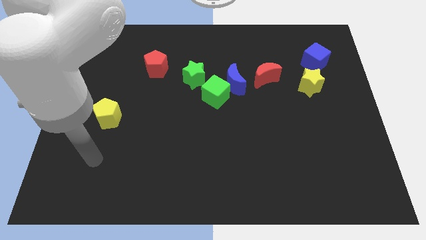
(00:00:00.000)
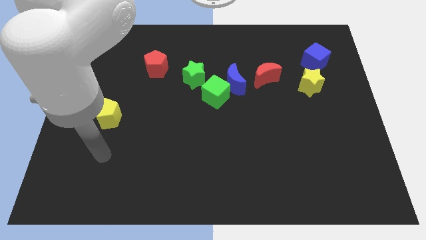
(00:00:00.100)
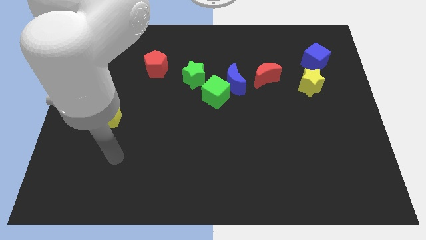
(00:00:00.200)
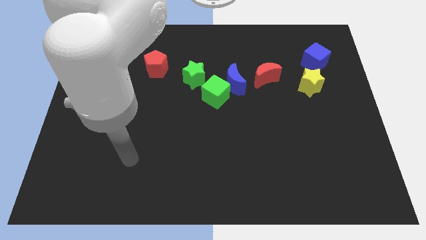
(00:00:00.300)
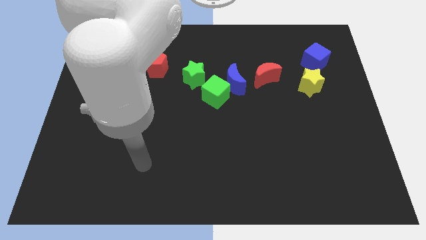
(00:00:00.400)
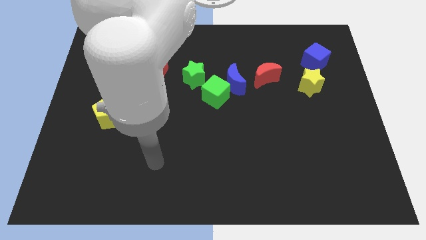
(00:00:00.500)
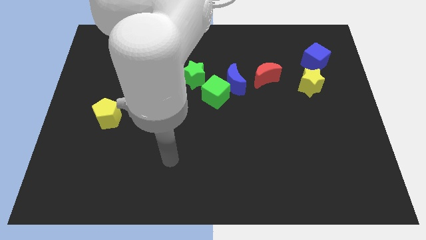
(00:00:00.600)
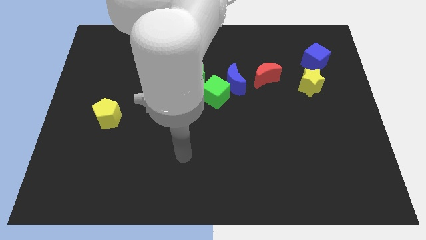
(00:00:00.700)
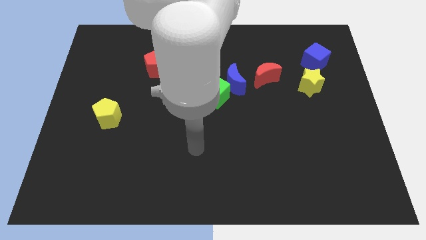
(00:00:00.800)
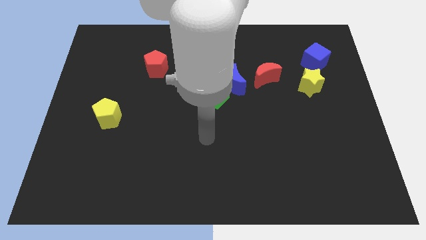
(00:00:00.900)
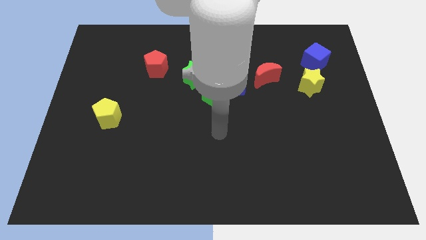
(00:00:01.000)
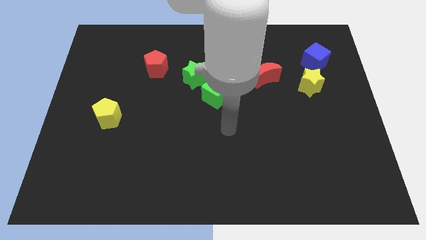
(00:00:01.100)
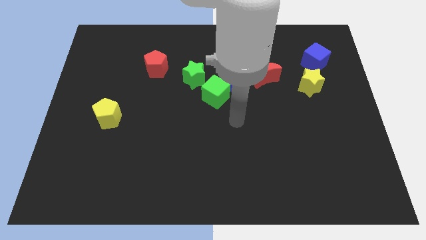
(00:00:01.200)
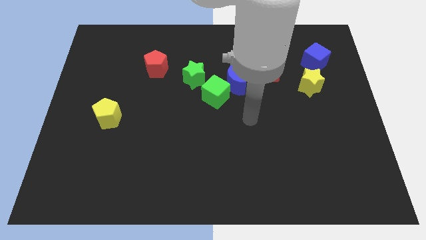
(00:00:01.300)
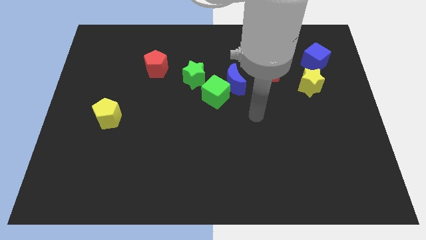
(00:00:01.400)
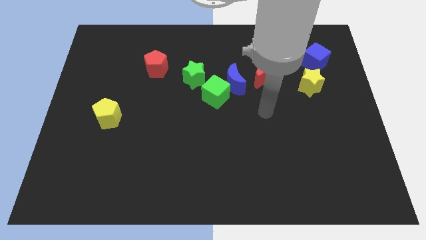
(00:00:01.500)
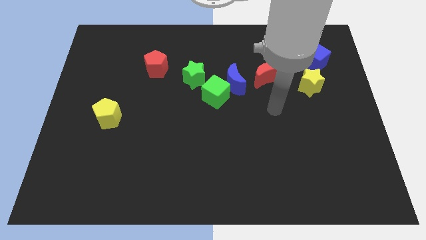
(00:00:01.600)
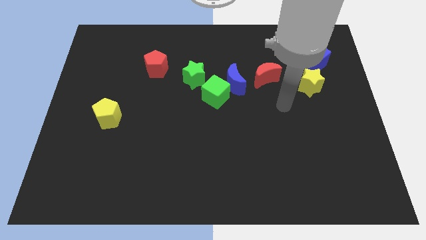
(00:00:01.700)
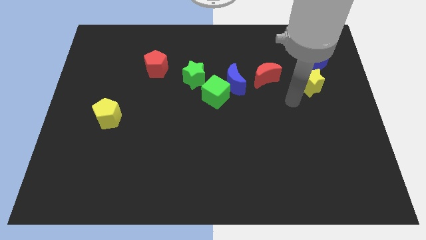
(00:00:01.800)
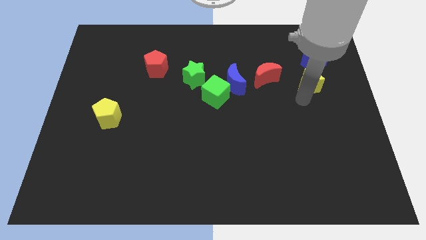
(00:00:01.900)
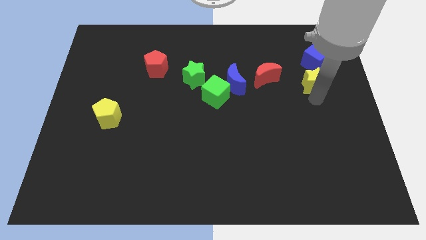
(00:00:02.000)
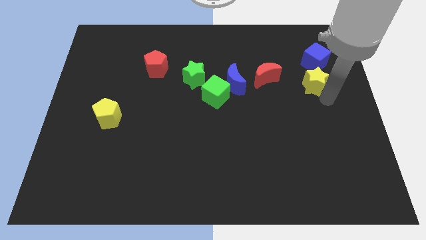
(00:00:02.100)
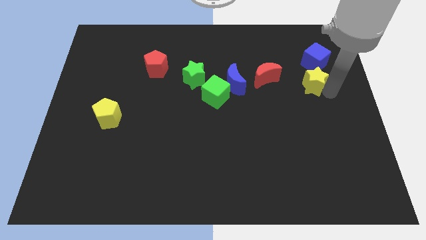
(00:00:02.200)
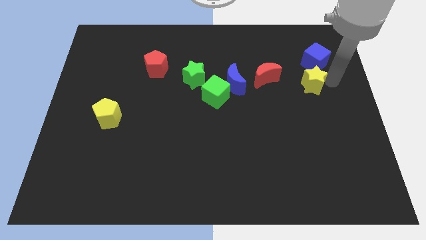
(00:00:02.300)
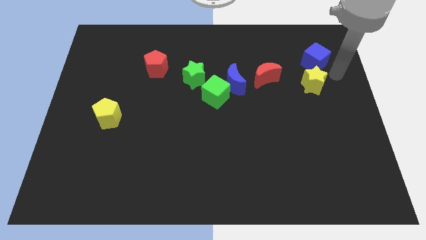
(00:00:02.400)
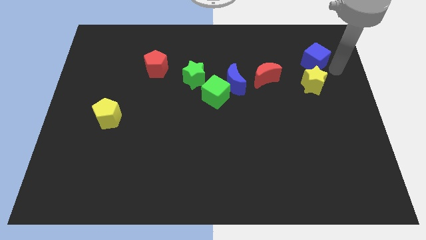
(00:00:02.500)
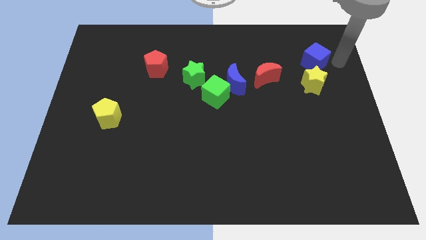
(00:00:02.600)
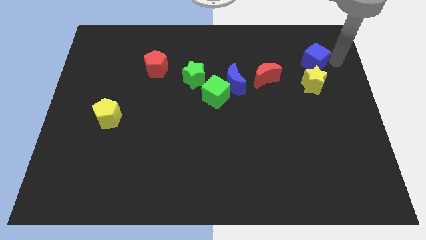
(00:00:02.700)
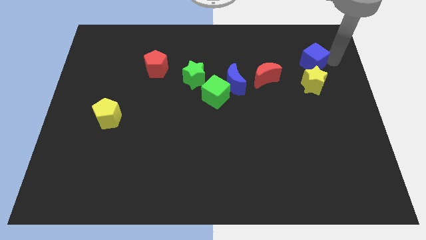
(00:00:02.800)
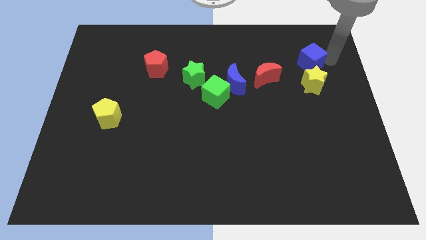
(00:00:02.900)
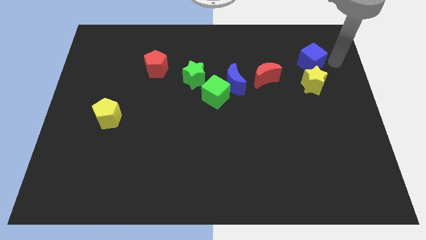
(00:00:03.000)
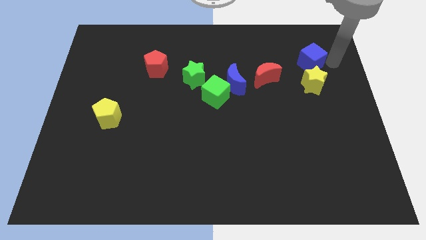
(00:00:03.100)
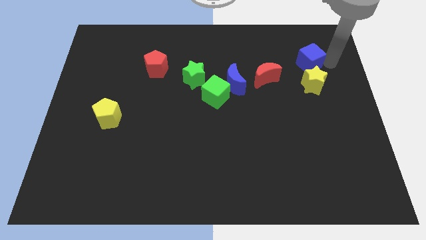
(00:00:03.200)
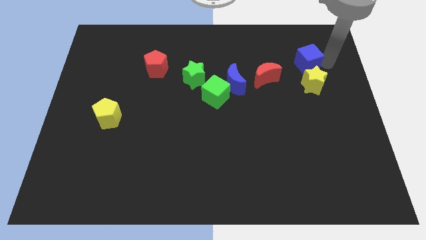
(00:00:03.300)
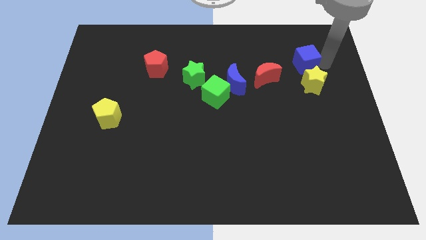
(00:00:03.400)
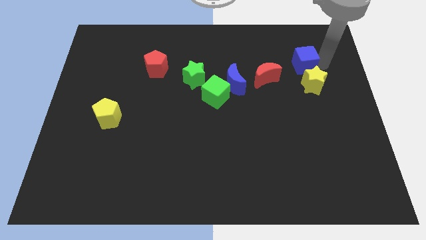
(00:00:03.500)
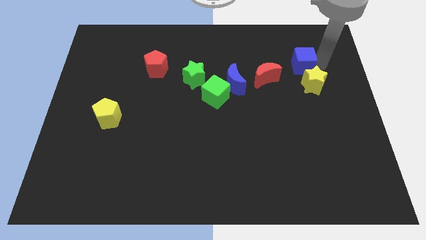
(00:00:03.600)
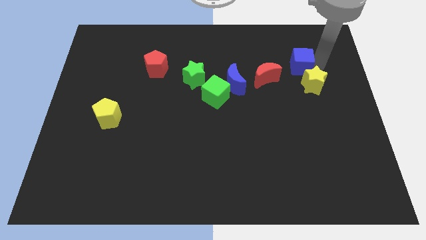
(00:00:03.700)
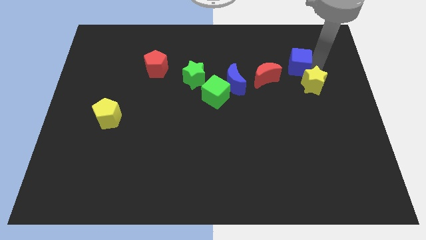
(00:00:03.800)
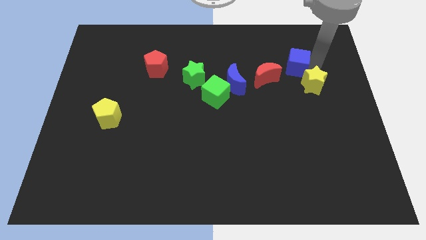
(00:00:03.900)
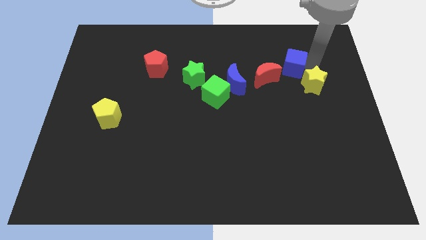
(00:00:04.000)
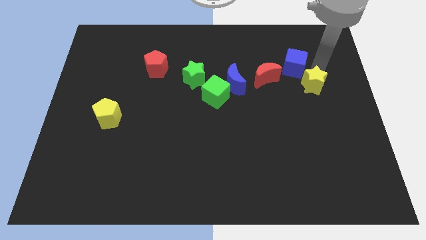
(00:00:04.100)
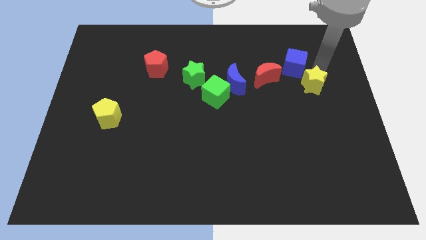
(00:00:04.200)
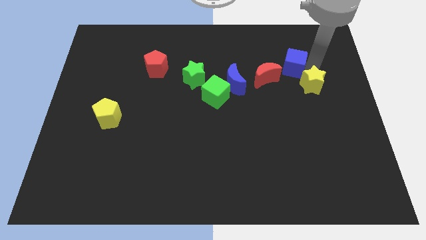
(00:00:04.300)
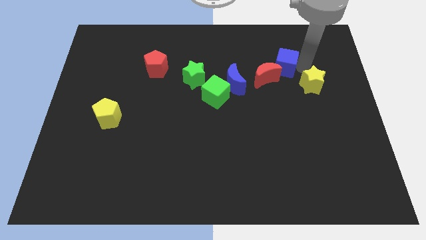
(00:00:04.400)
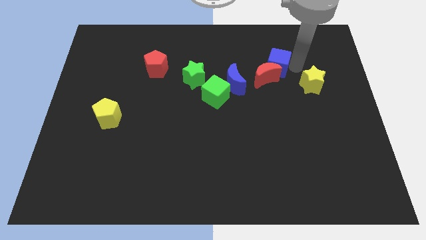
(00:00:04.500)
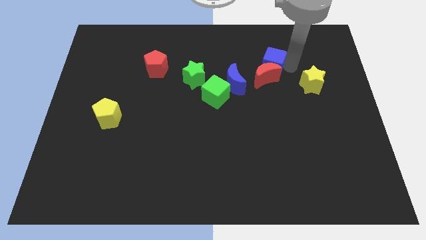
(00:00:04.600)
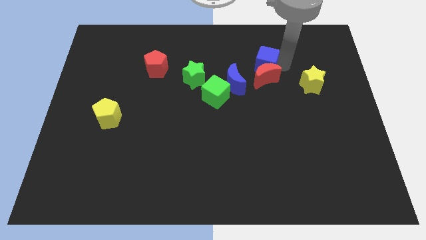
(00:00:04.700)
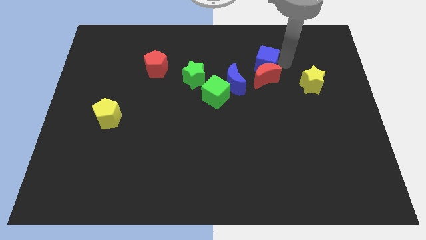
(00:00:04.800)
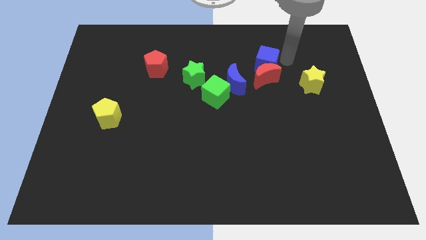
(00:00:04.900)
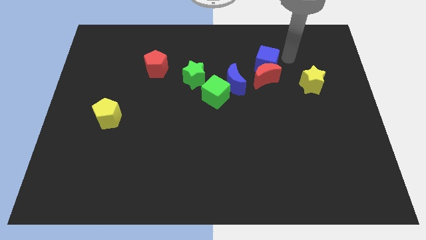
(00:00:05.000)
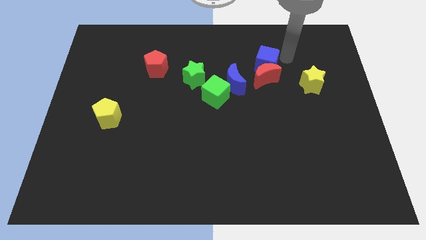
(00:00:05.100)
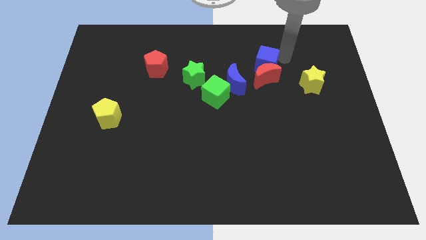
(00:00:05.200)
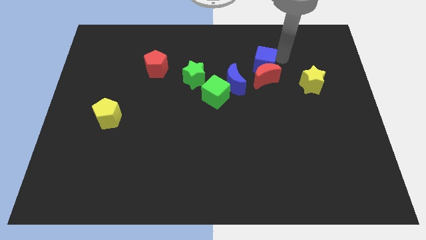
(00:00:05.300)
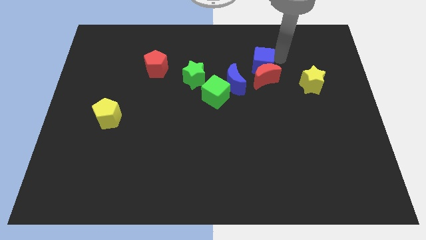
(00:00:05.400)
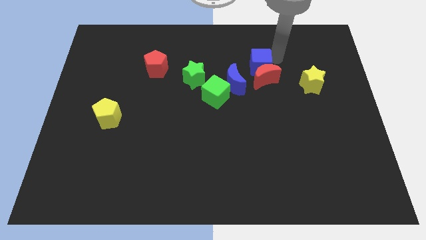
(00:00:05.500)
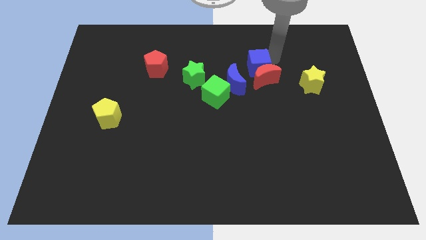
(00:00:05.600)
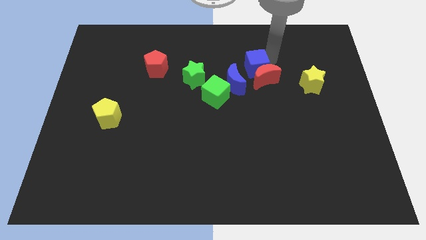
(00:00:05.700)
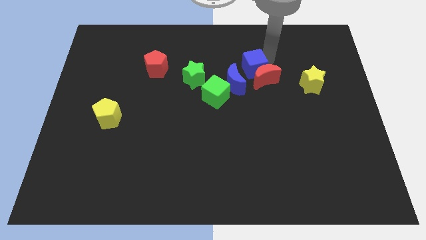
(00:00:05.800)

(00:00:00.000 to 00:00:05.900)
move the blue cube to the right of the green star

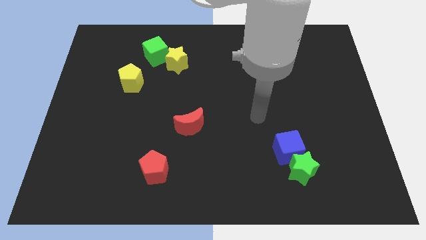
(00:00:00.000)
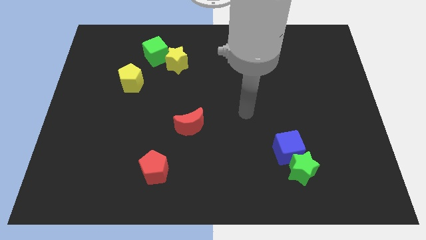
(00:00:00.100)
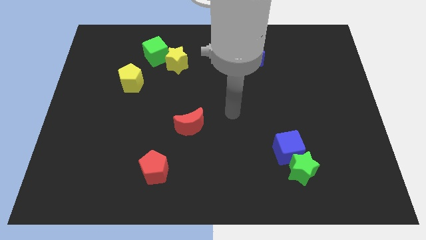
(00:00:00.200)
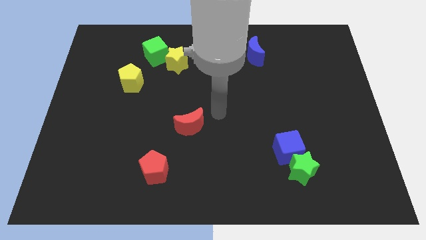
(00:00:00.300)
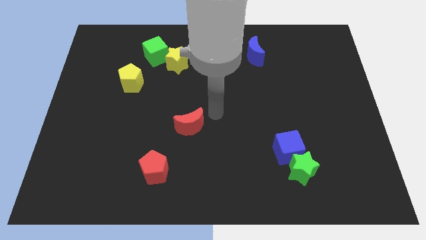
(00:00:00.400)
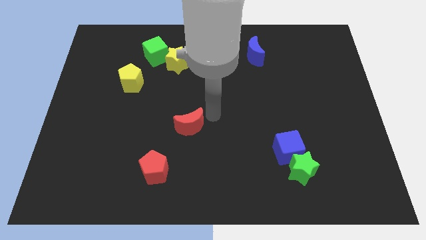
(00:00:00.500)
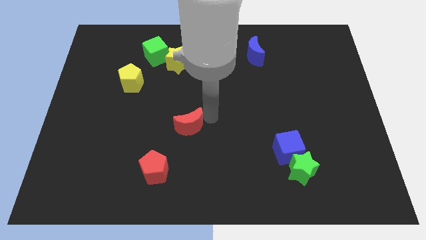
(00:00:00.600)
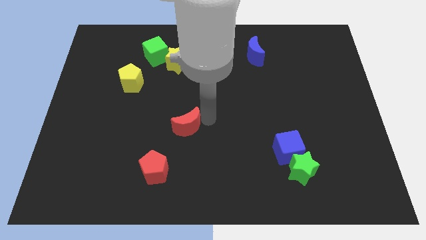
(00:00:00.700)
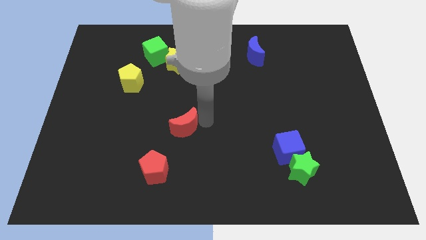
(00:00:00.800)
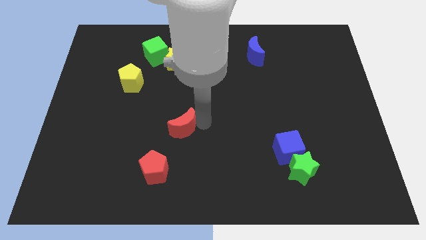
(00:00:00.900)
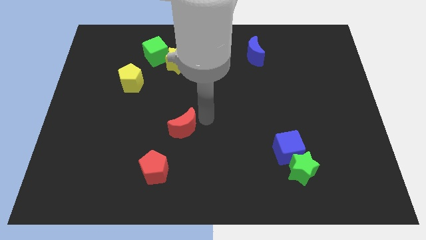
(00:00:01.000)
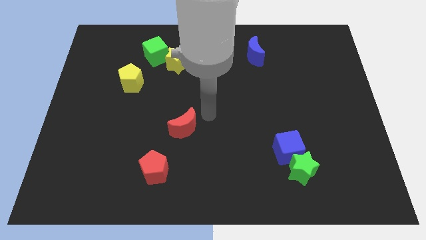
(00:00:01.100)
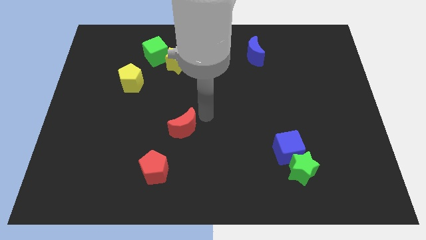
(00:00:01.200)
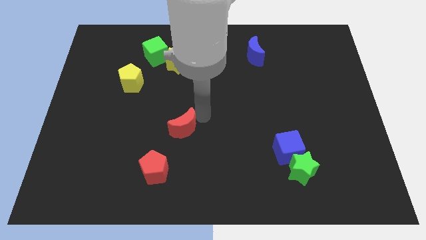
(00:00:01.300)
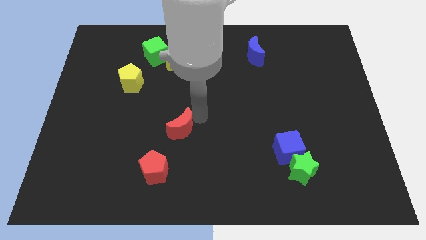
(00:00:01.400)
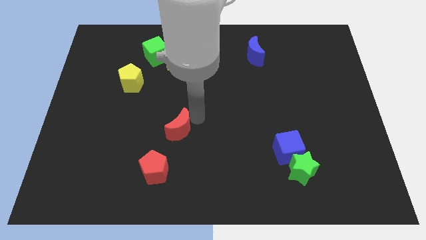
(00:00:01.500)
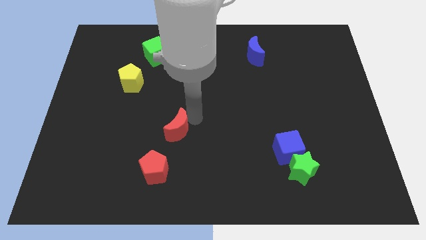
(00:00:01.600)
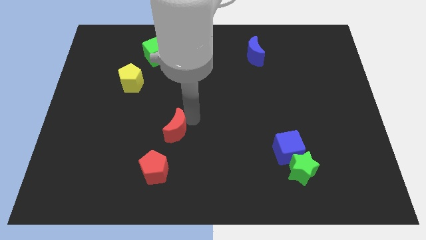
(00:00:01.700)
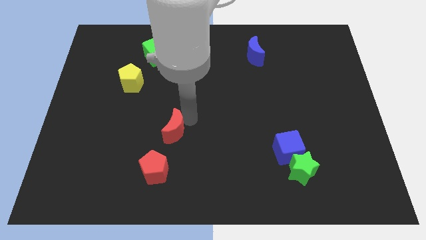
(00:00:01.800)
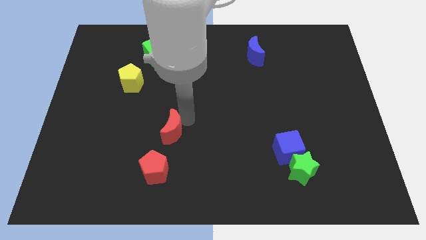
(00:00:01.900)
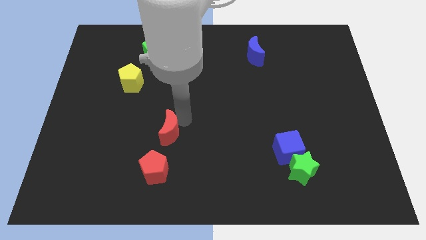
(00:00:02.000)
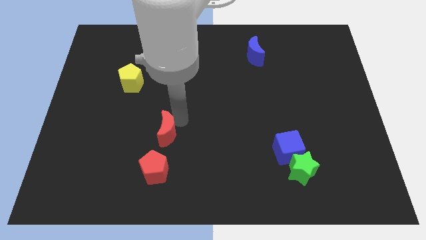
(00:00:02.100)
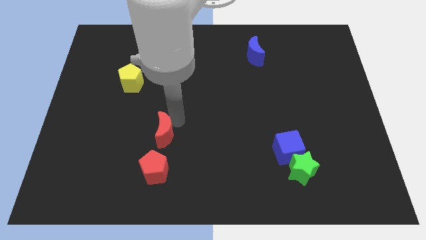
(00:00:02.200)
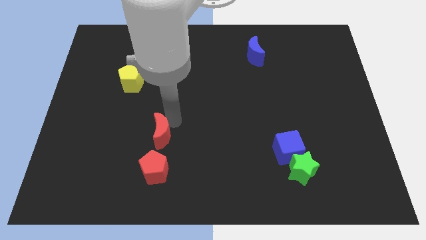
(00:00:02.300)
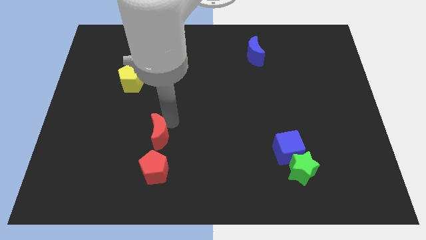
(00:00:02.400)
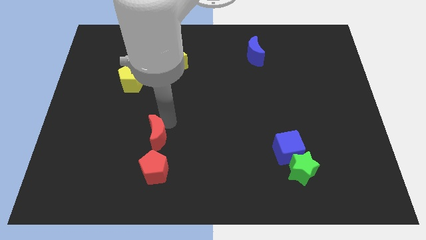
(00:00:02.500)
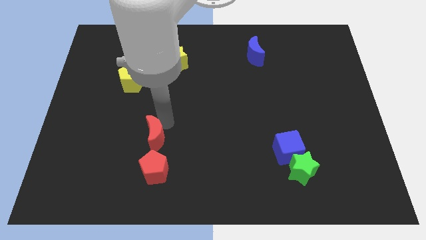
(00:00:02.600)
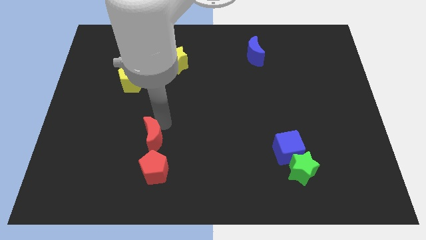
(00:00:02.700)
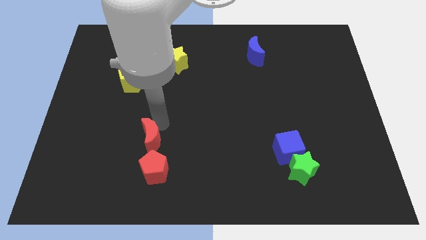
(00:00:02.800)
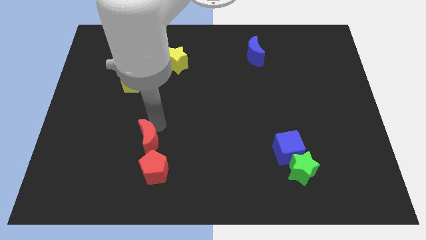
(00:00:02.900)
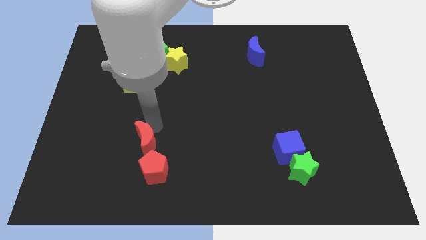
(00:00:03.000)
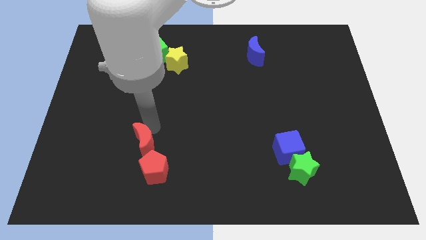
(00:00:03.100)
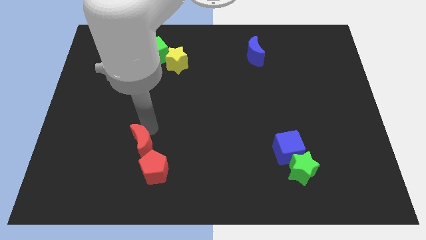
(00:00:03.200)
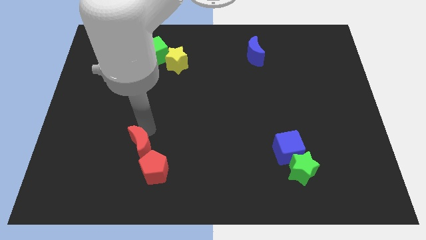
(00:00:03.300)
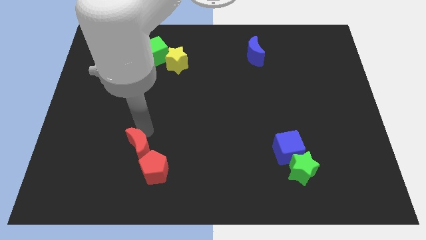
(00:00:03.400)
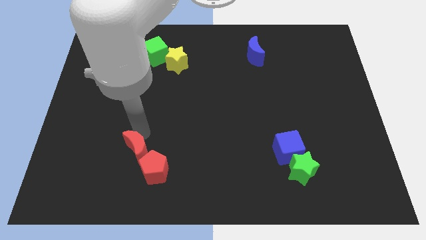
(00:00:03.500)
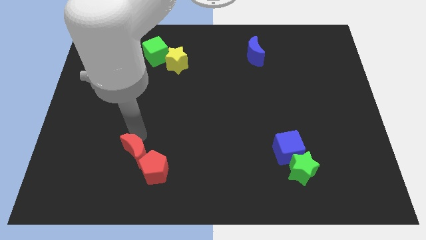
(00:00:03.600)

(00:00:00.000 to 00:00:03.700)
slide the red moon to the left side of the red pentagon
